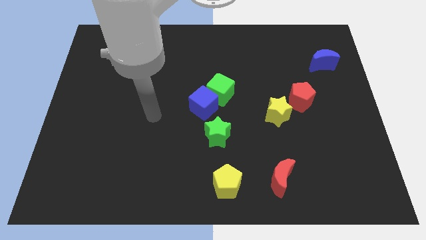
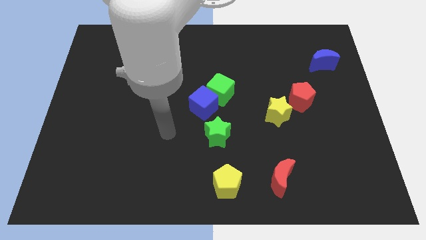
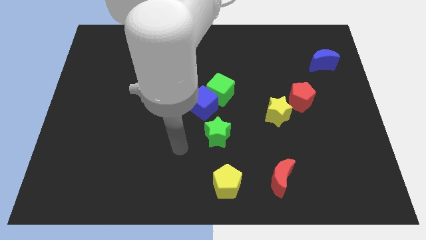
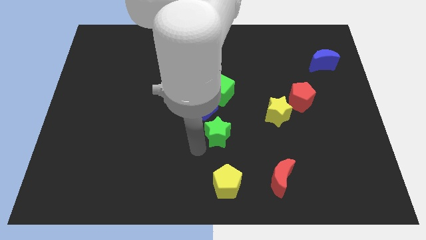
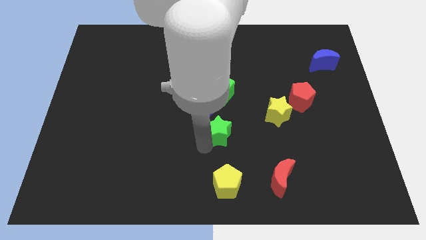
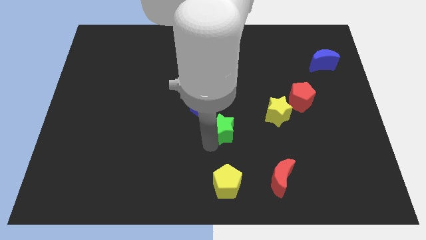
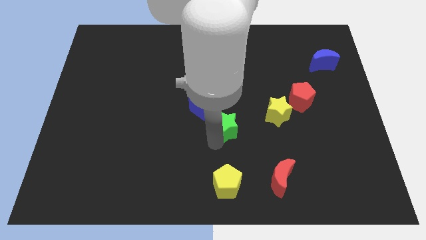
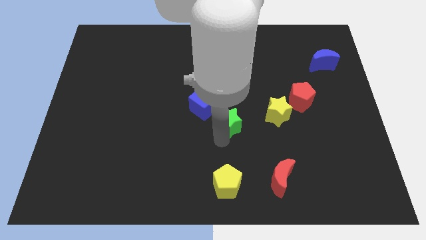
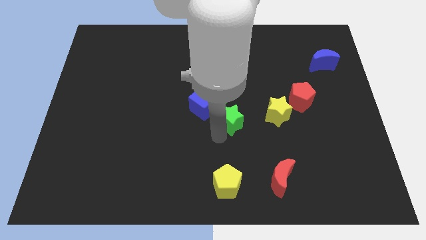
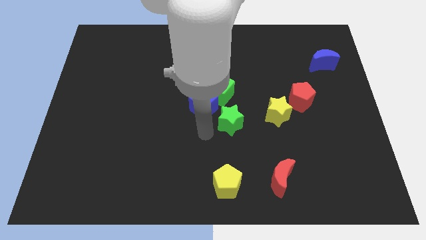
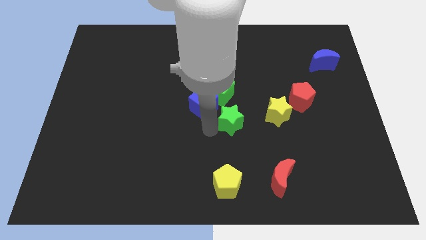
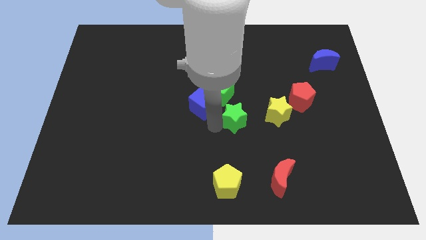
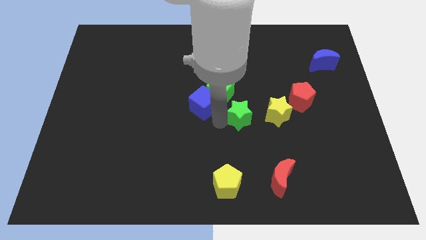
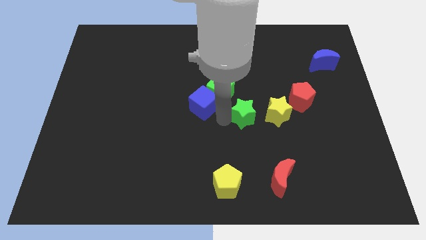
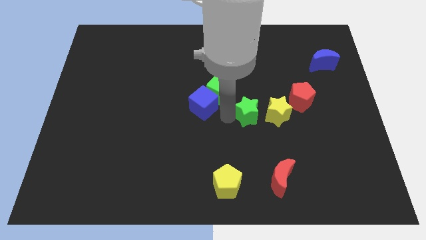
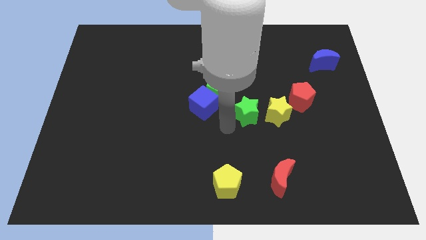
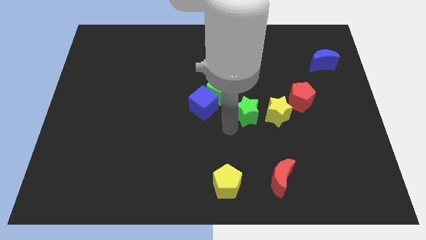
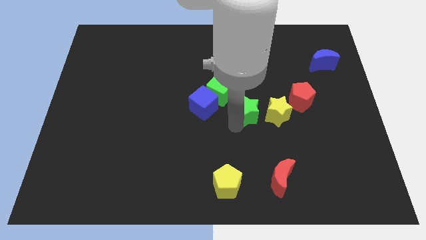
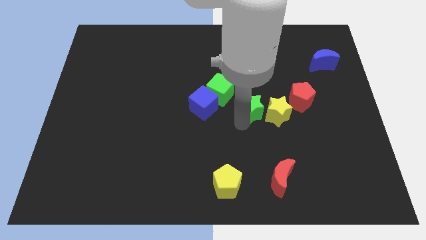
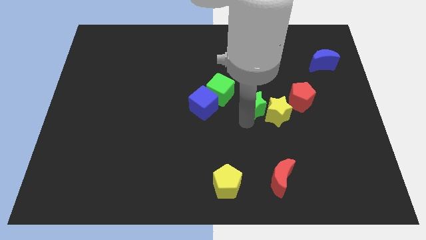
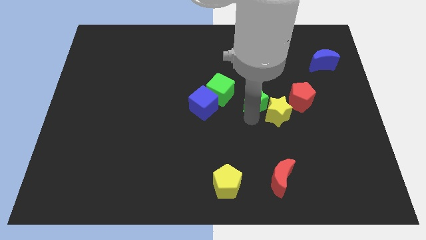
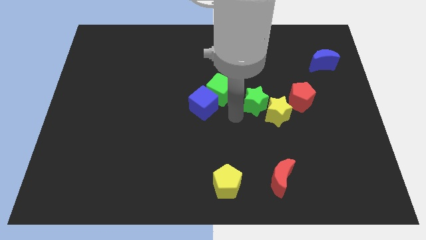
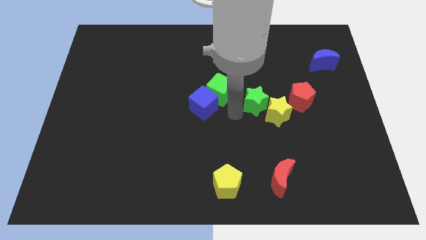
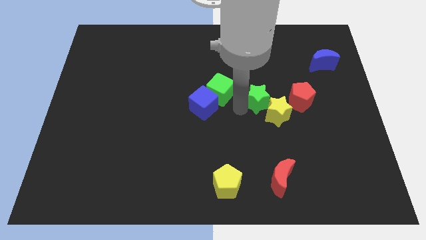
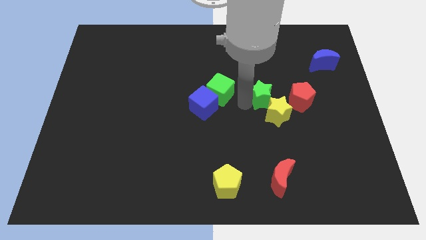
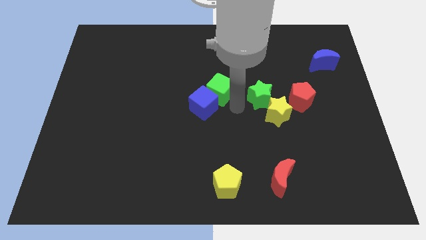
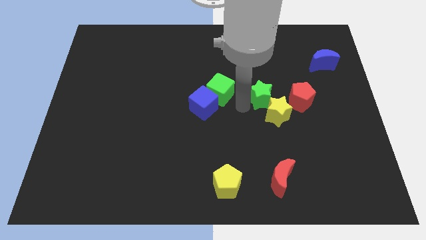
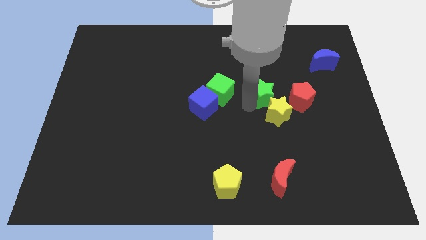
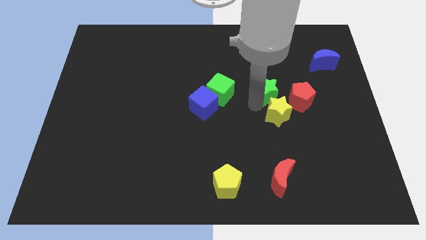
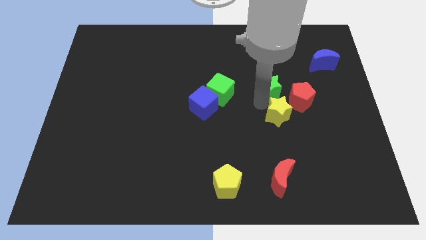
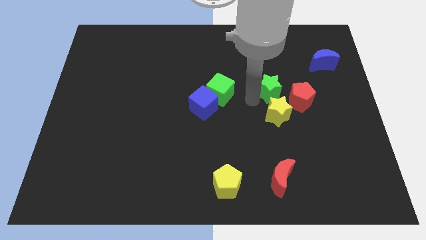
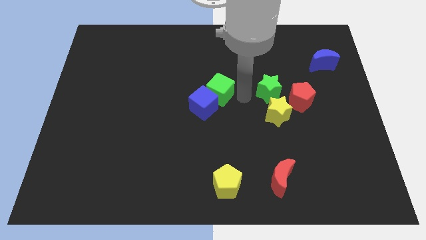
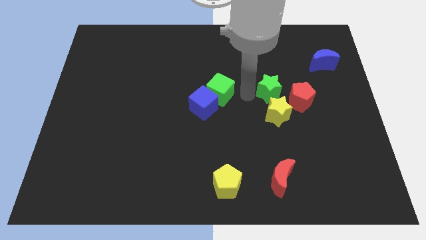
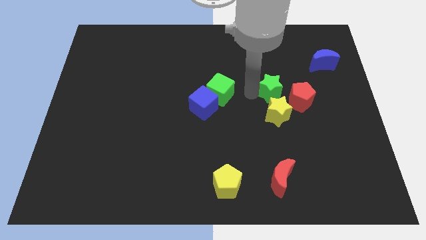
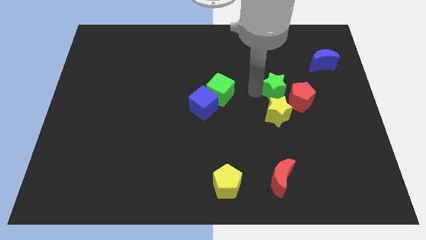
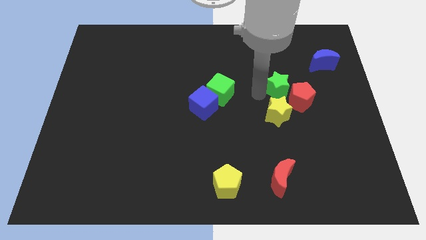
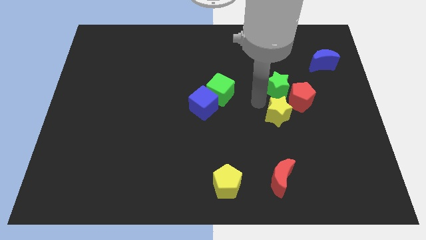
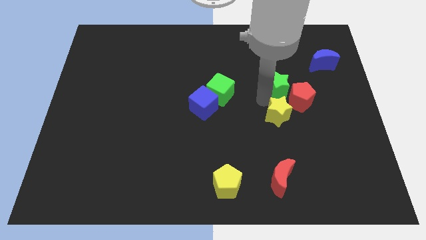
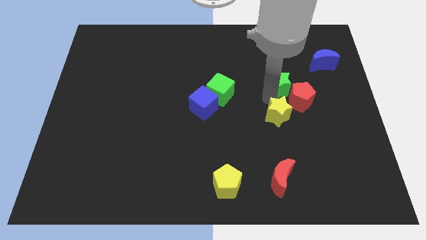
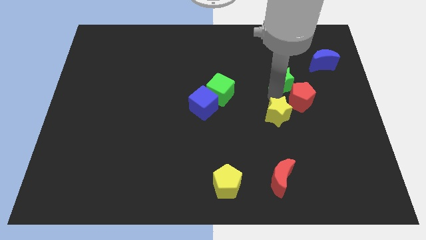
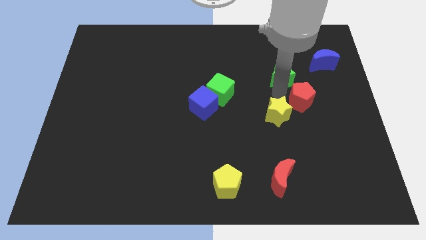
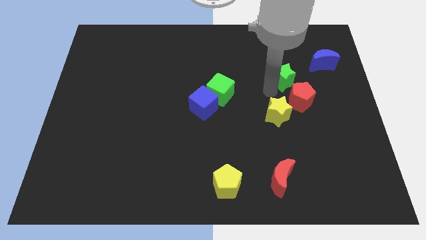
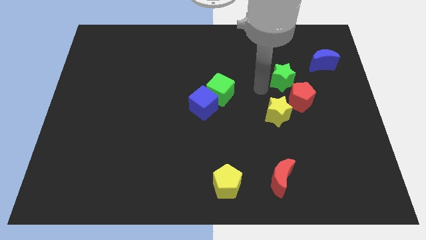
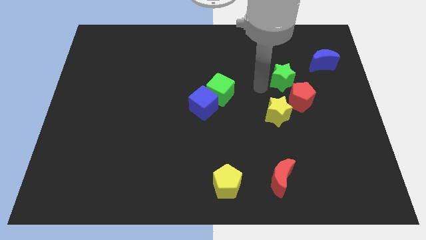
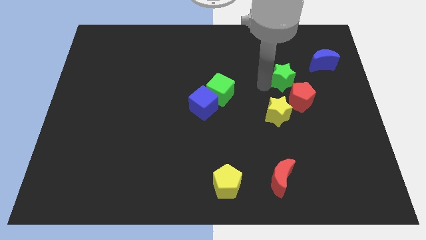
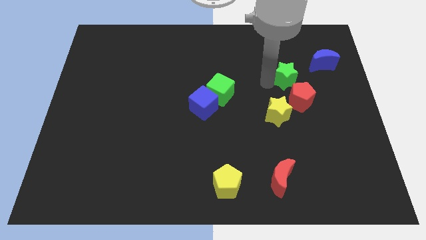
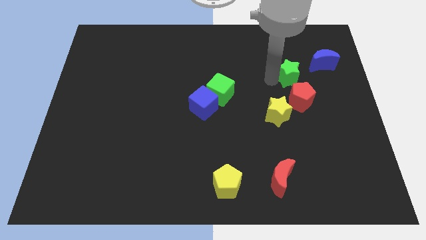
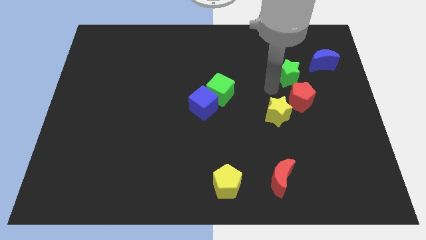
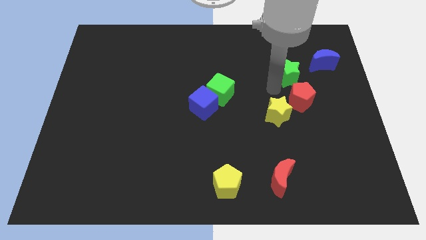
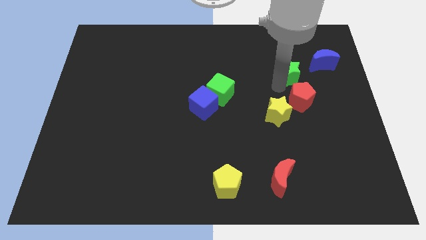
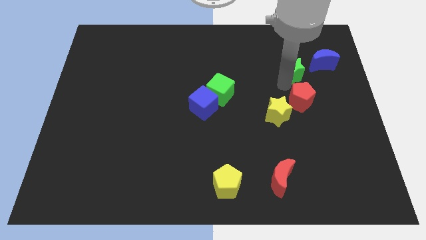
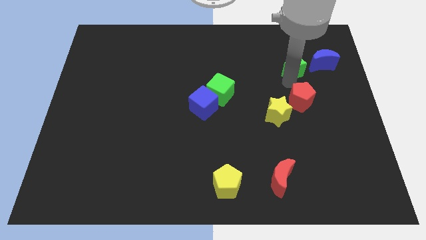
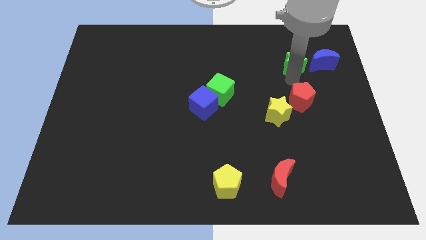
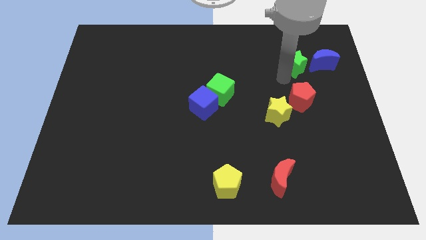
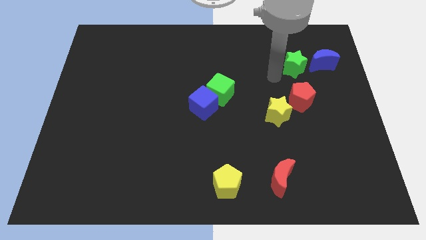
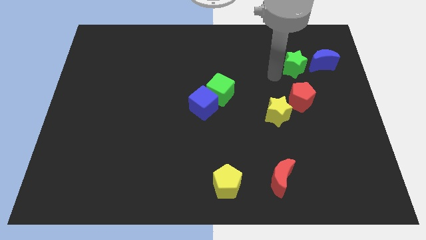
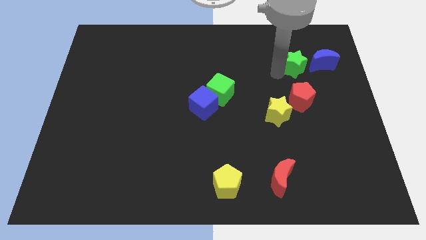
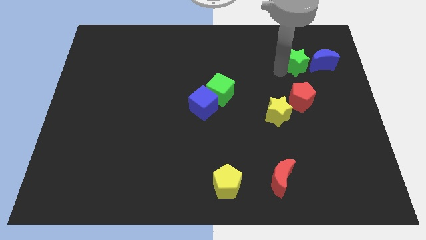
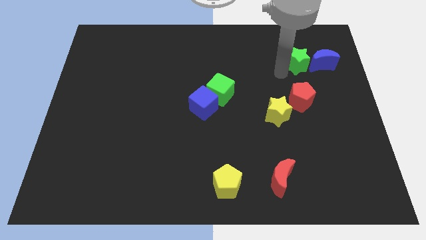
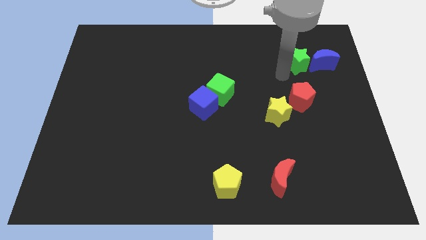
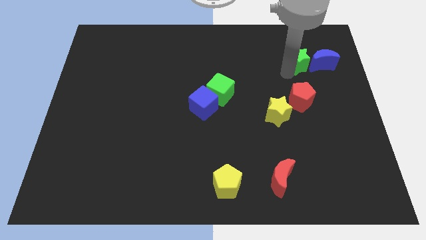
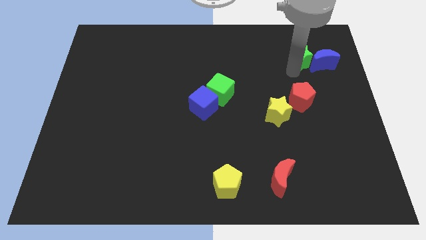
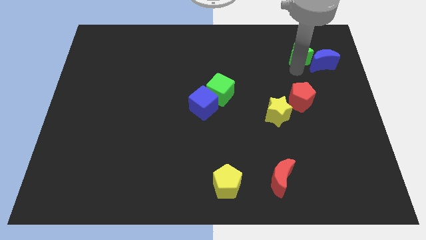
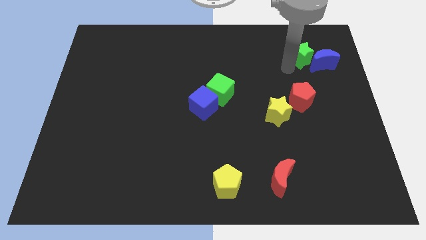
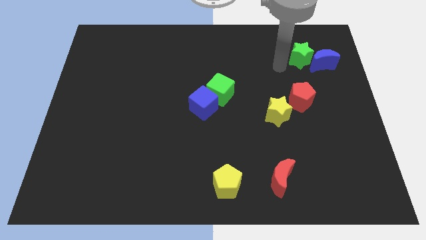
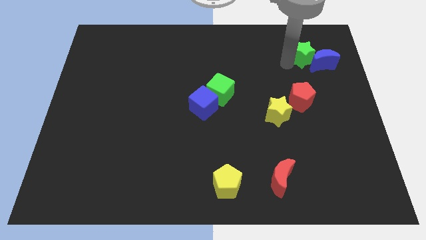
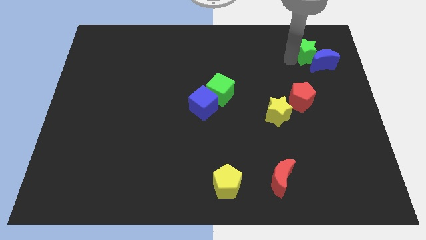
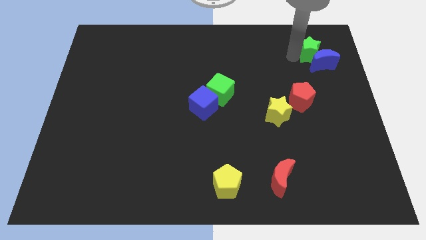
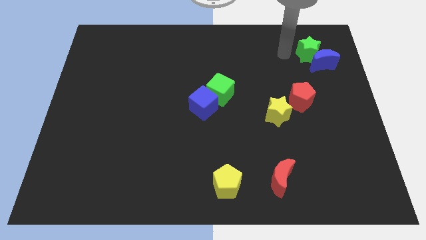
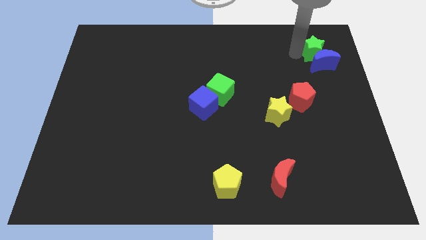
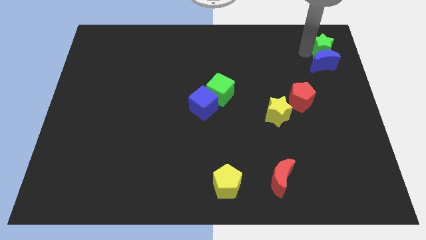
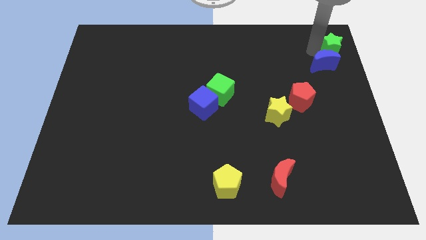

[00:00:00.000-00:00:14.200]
put the green star to the top right
